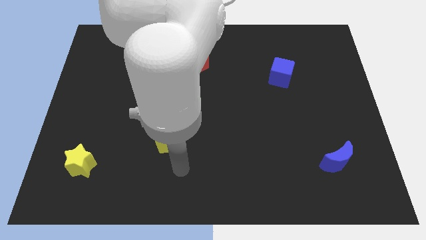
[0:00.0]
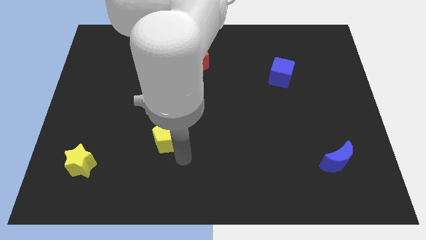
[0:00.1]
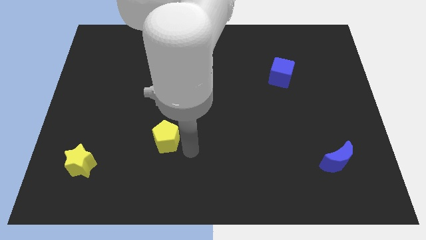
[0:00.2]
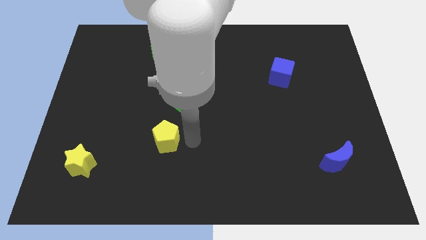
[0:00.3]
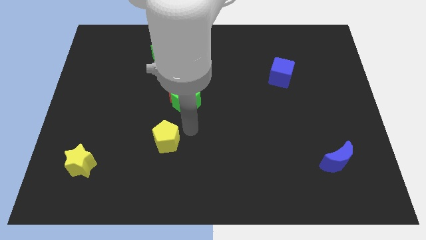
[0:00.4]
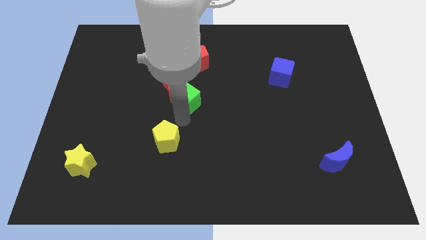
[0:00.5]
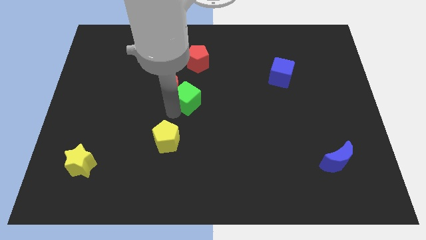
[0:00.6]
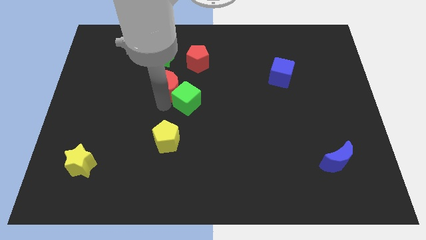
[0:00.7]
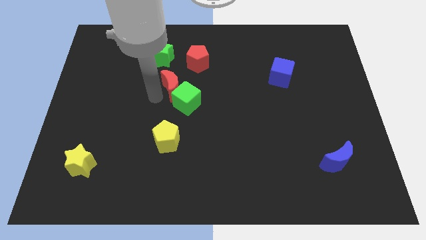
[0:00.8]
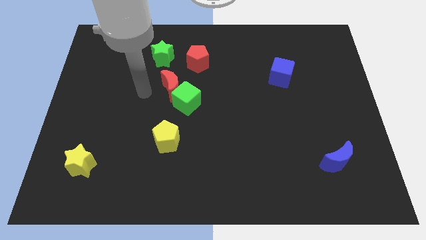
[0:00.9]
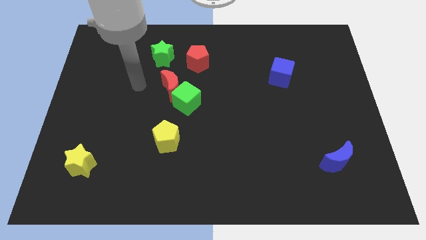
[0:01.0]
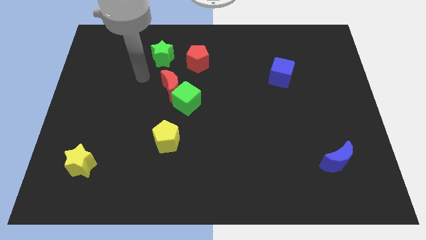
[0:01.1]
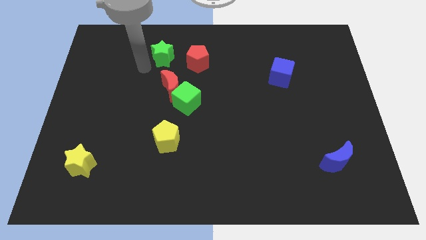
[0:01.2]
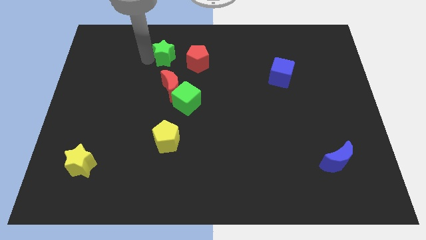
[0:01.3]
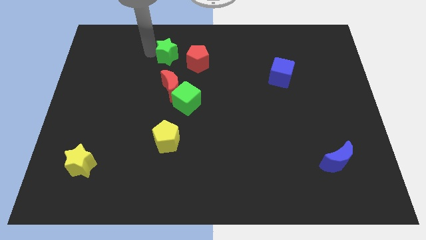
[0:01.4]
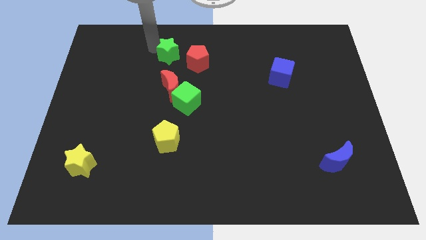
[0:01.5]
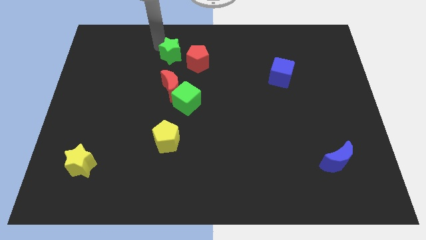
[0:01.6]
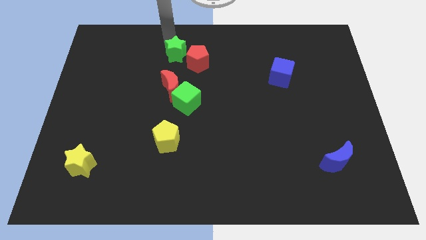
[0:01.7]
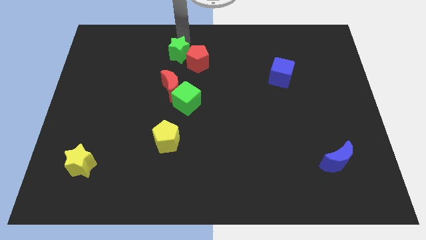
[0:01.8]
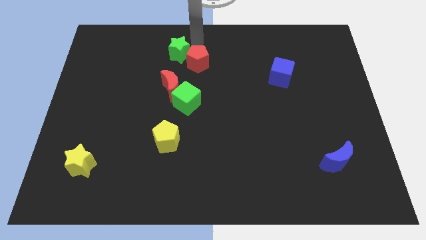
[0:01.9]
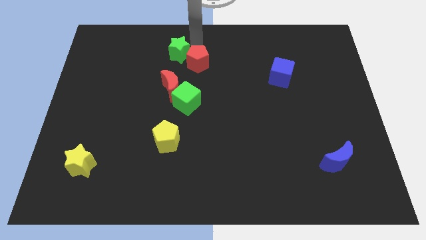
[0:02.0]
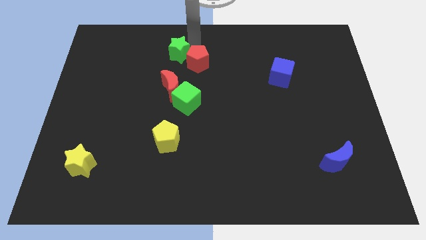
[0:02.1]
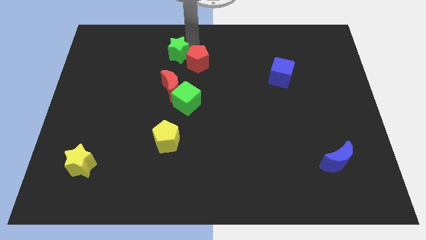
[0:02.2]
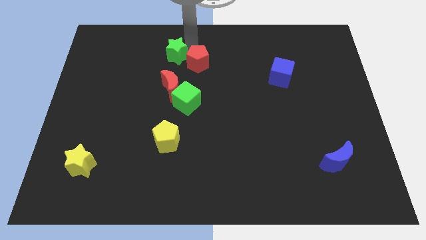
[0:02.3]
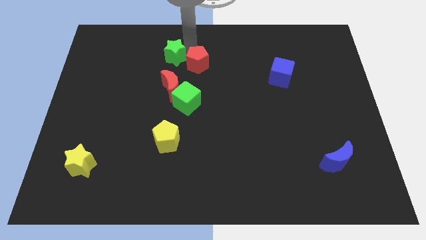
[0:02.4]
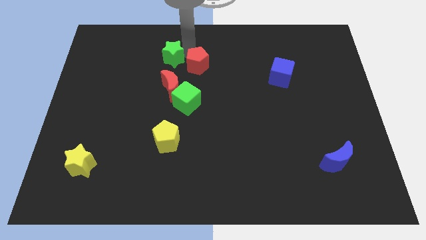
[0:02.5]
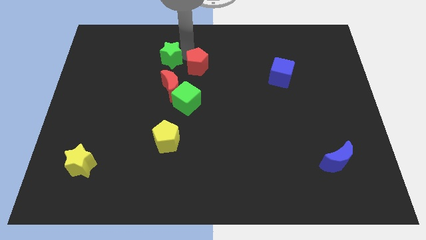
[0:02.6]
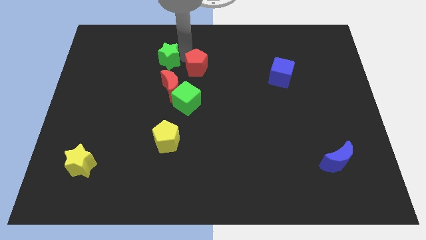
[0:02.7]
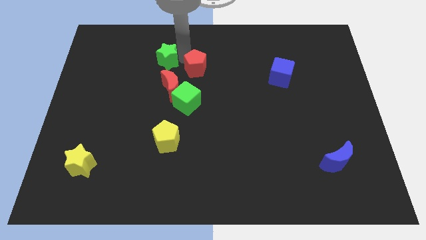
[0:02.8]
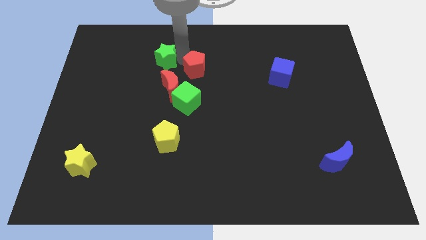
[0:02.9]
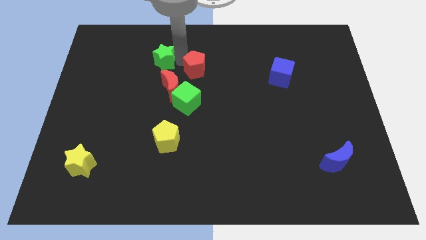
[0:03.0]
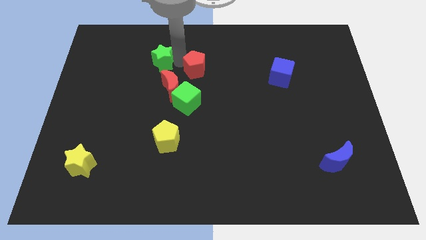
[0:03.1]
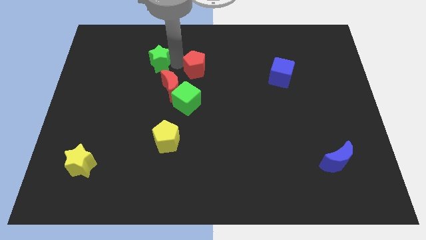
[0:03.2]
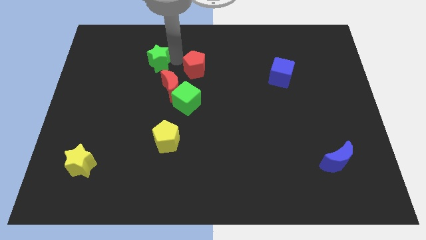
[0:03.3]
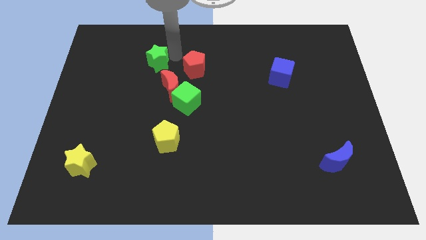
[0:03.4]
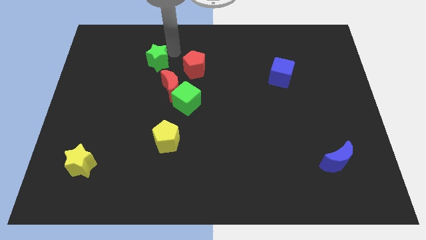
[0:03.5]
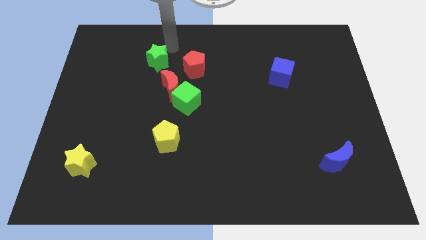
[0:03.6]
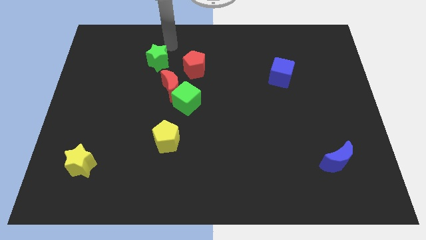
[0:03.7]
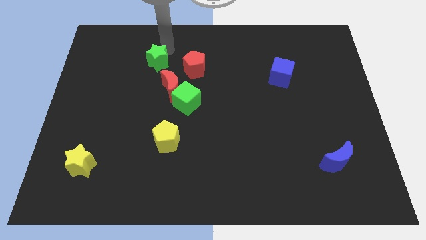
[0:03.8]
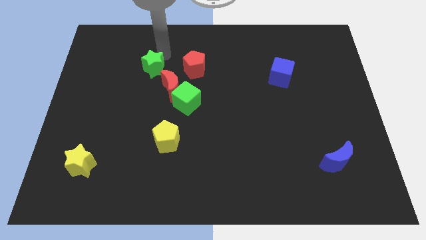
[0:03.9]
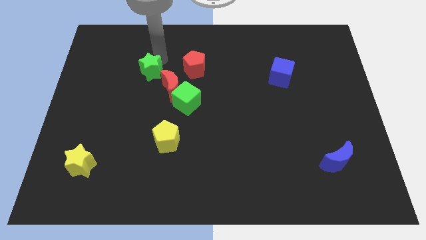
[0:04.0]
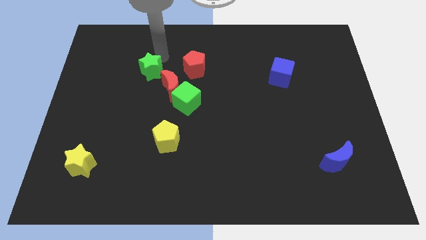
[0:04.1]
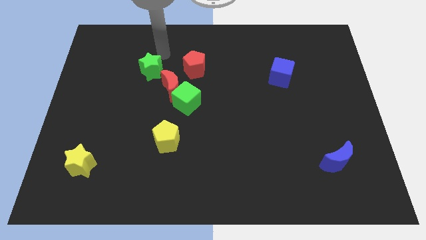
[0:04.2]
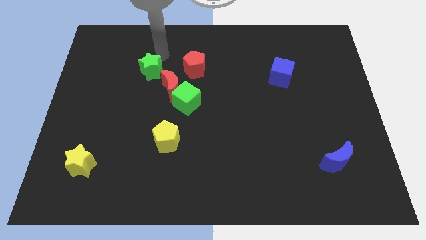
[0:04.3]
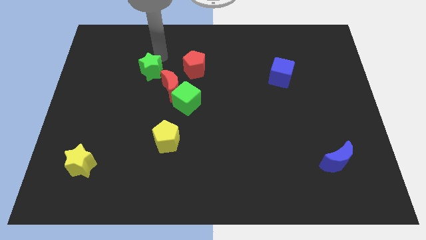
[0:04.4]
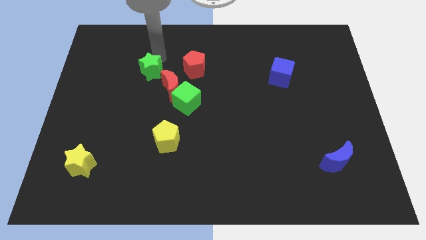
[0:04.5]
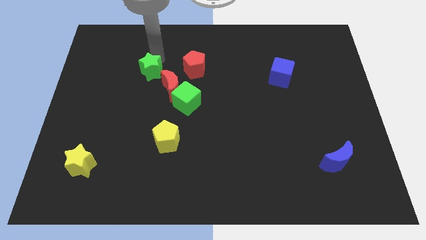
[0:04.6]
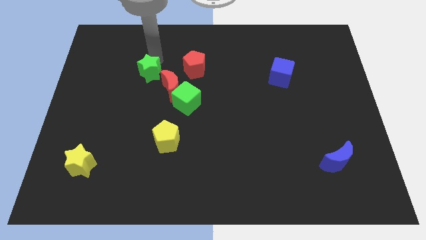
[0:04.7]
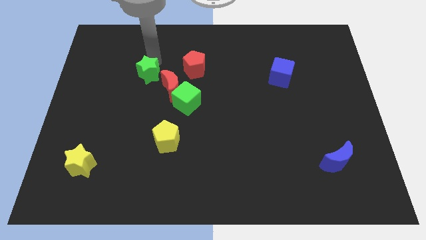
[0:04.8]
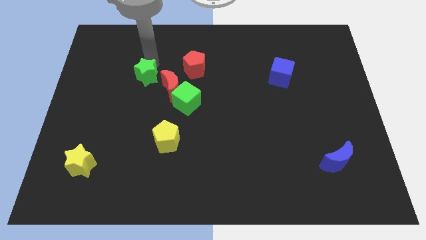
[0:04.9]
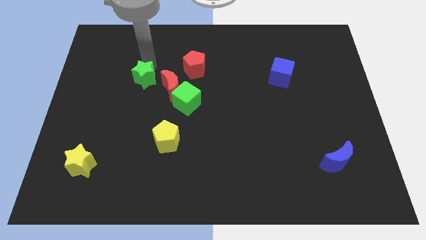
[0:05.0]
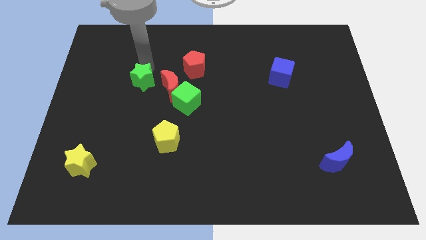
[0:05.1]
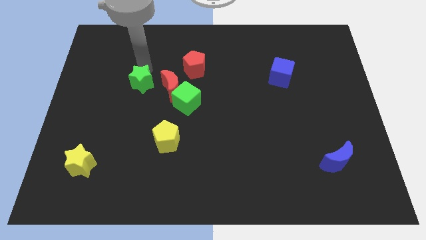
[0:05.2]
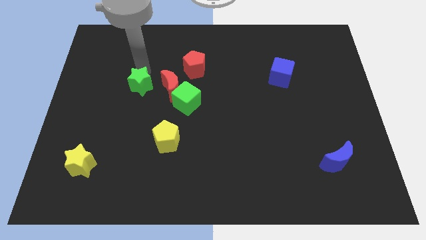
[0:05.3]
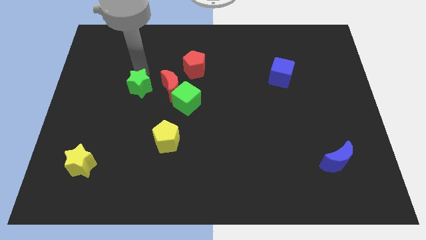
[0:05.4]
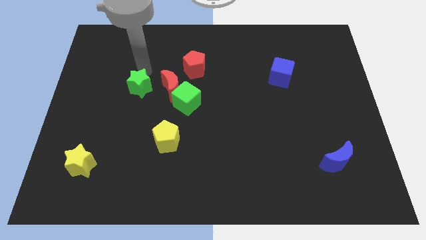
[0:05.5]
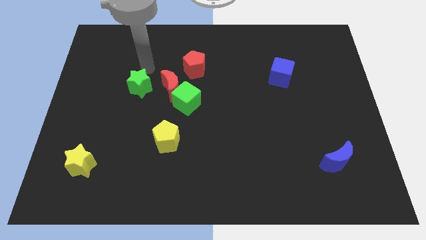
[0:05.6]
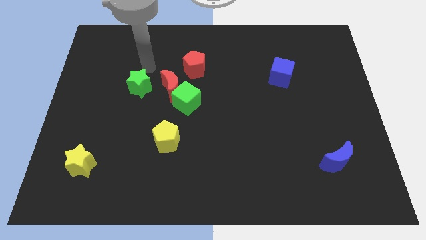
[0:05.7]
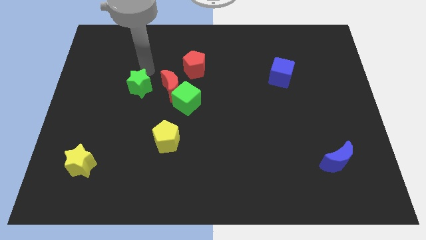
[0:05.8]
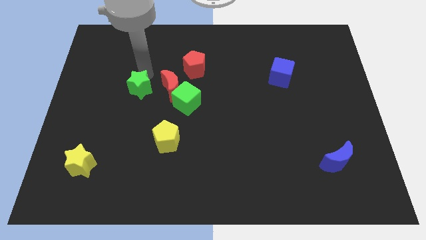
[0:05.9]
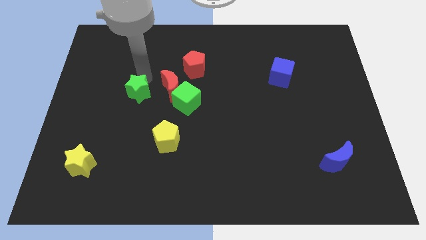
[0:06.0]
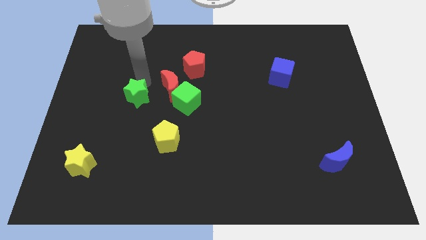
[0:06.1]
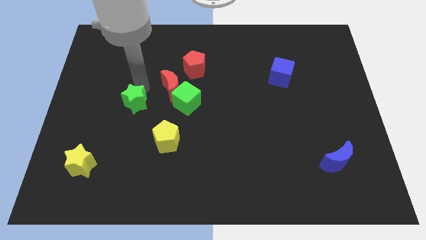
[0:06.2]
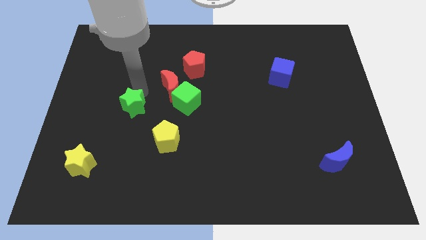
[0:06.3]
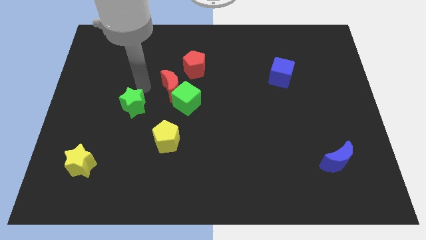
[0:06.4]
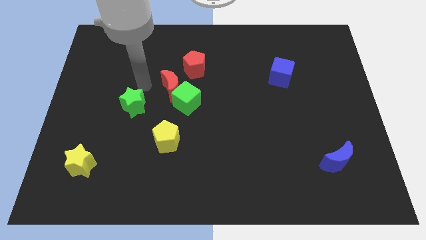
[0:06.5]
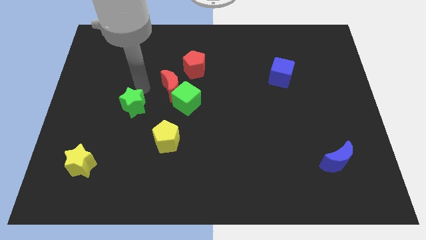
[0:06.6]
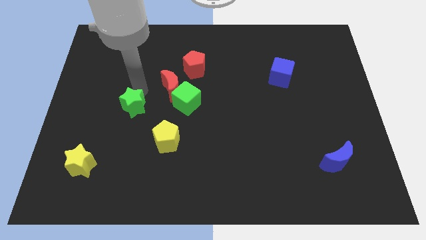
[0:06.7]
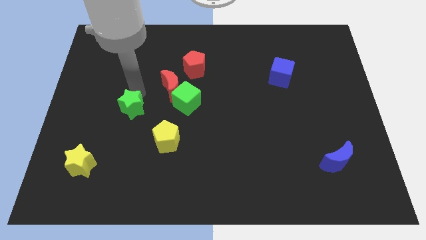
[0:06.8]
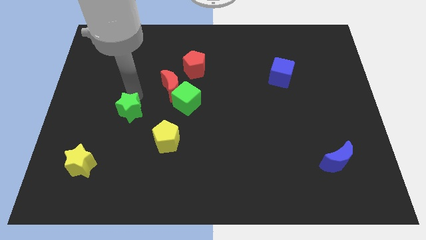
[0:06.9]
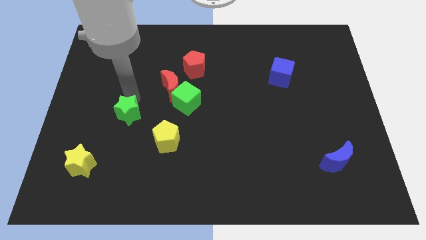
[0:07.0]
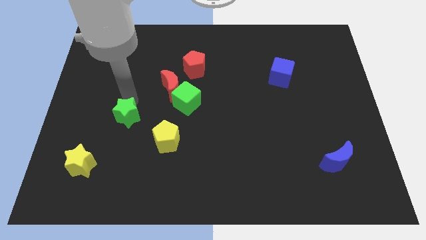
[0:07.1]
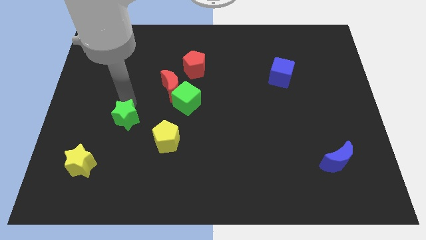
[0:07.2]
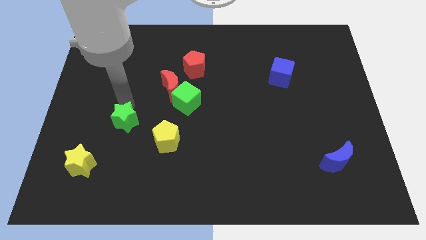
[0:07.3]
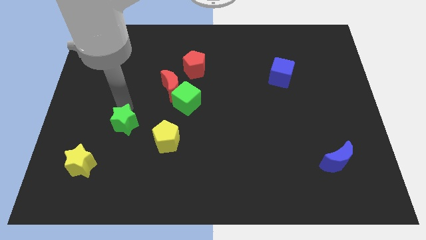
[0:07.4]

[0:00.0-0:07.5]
put the green star to the left side of the yellow pentagon
